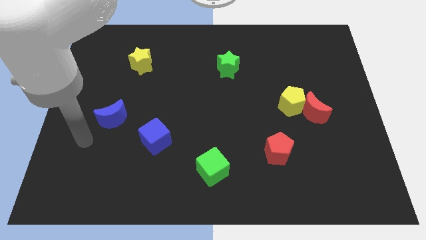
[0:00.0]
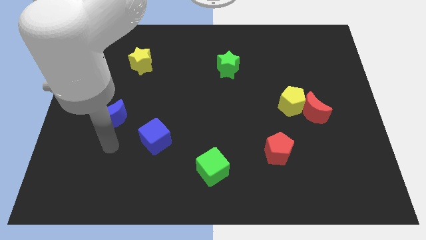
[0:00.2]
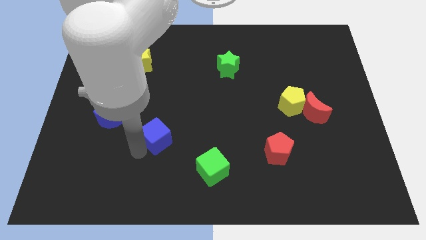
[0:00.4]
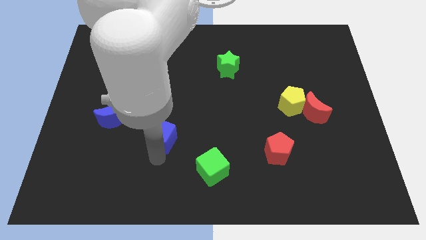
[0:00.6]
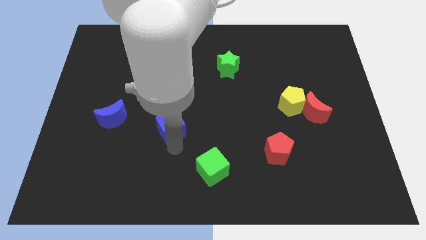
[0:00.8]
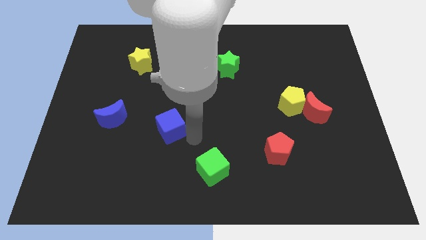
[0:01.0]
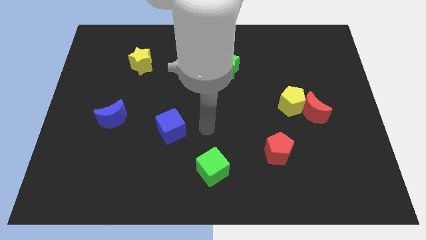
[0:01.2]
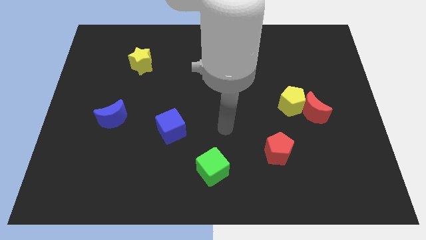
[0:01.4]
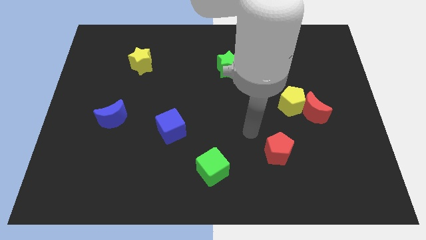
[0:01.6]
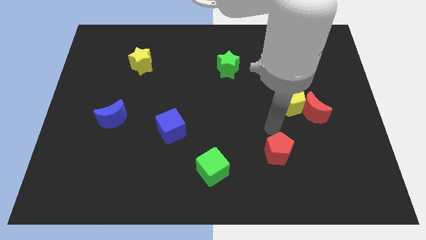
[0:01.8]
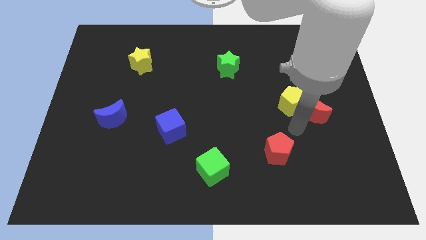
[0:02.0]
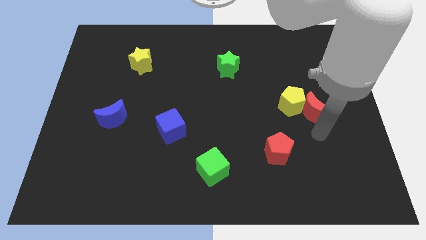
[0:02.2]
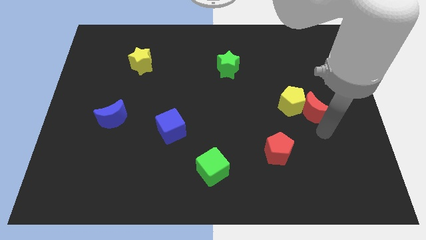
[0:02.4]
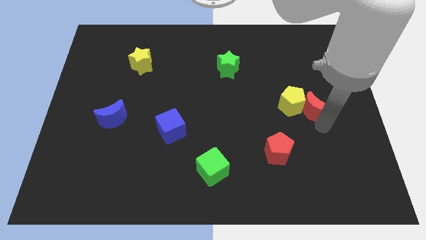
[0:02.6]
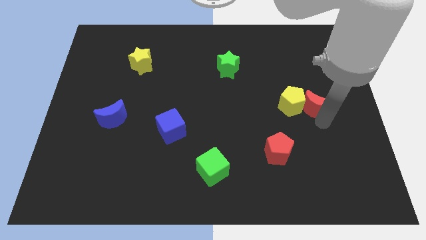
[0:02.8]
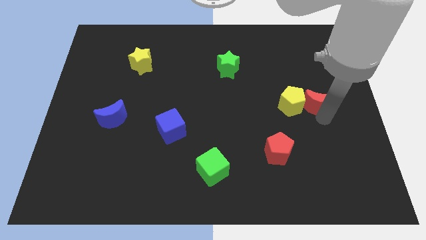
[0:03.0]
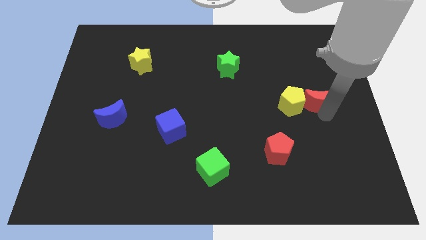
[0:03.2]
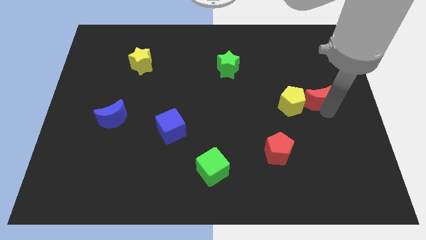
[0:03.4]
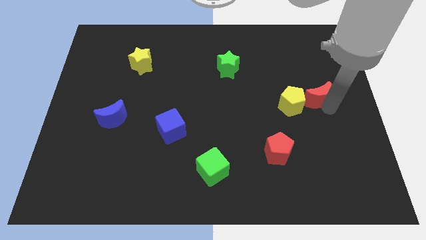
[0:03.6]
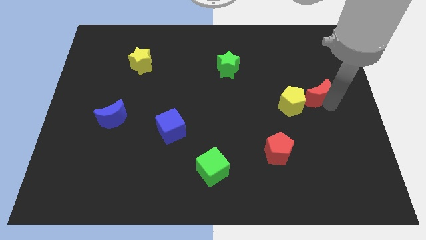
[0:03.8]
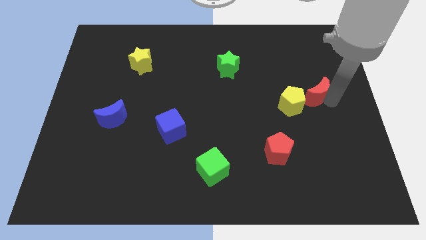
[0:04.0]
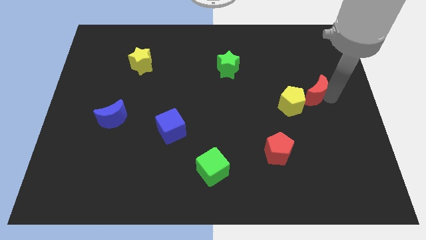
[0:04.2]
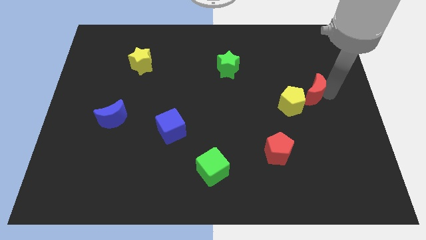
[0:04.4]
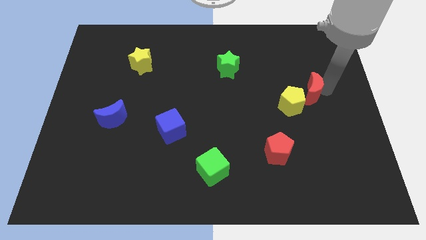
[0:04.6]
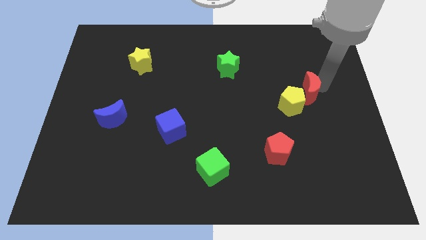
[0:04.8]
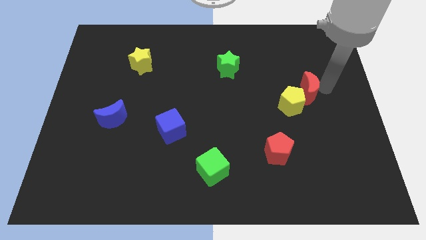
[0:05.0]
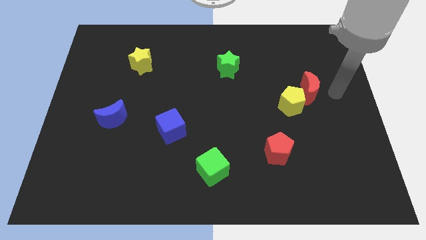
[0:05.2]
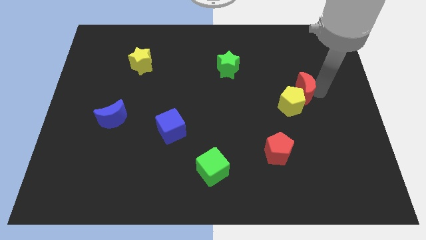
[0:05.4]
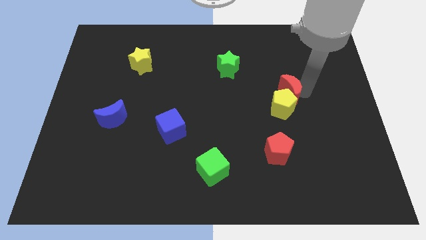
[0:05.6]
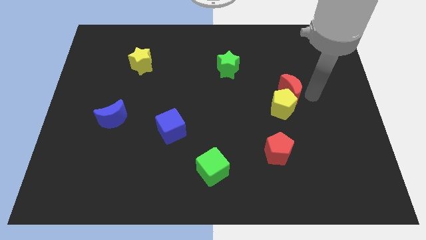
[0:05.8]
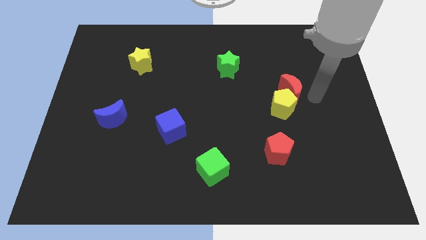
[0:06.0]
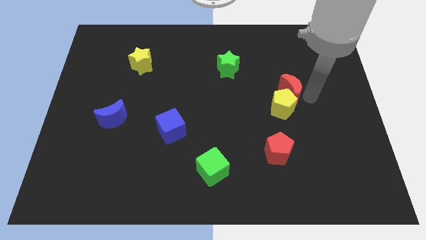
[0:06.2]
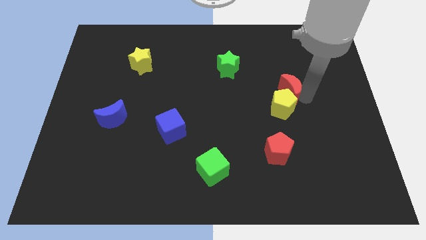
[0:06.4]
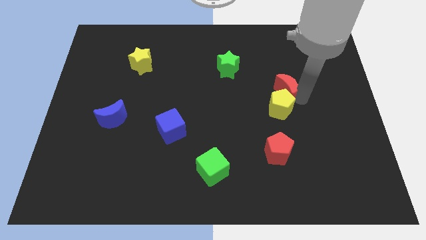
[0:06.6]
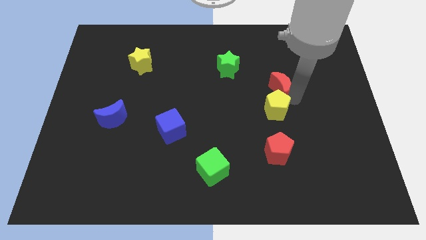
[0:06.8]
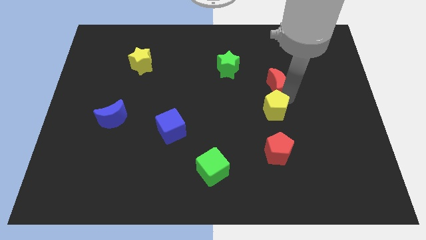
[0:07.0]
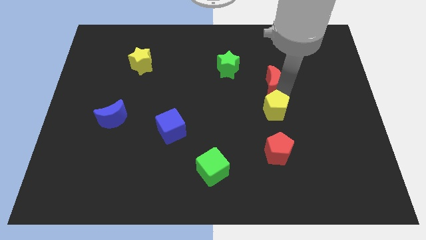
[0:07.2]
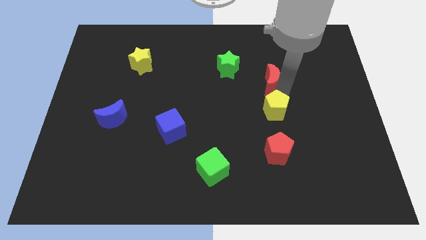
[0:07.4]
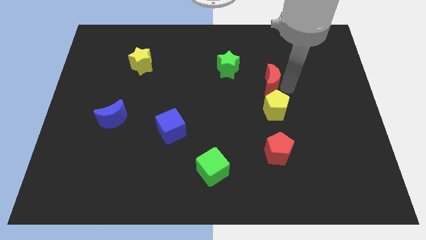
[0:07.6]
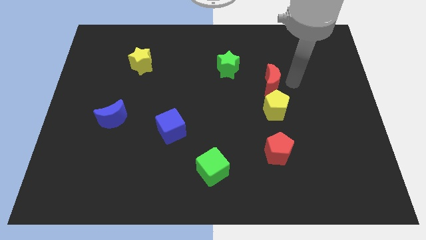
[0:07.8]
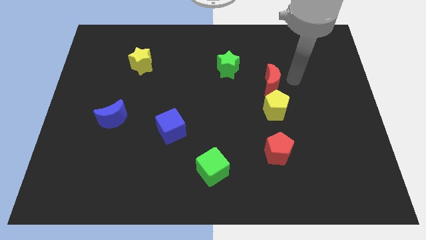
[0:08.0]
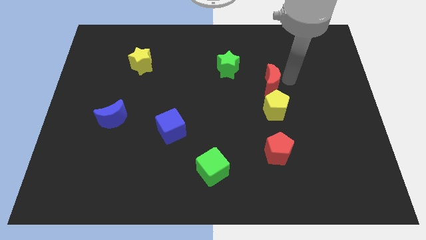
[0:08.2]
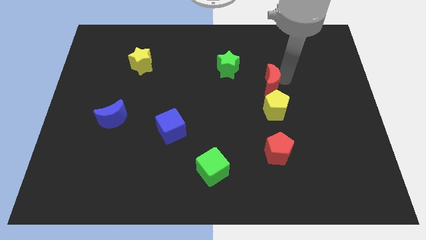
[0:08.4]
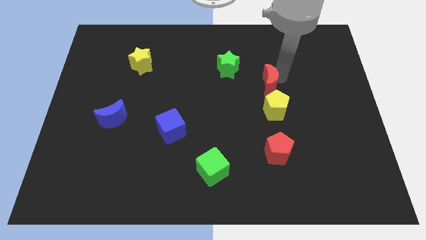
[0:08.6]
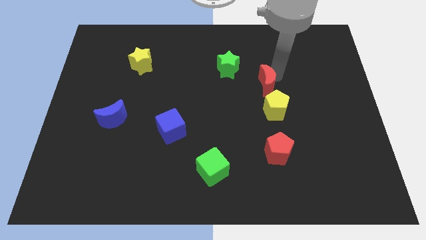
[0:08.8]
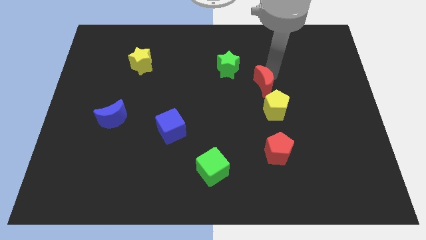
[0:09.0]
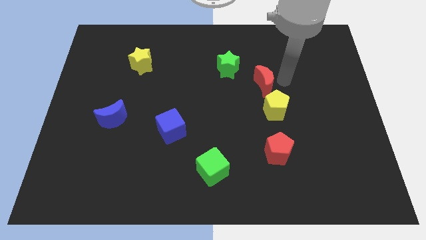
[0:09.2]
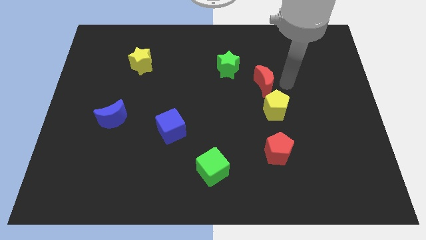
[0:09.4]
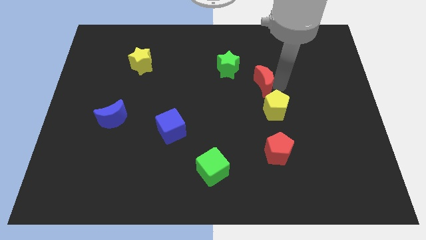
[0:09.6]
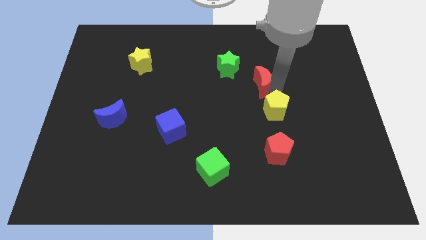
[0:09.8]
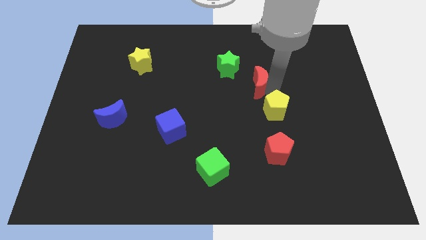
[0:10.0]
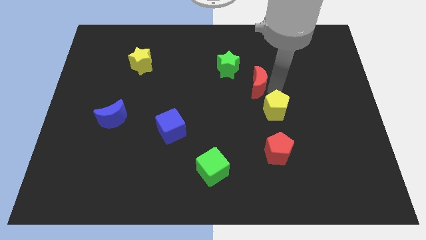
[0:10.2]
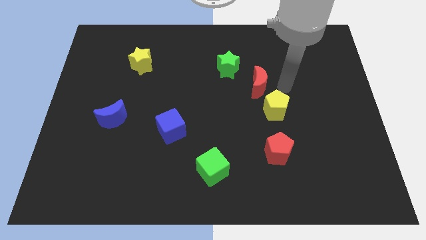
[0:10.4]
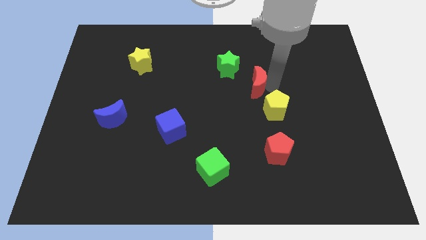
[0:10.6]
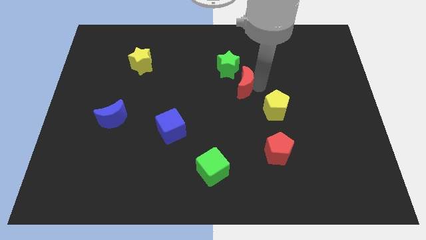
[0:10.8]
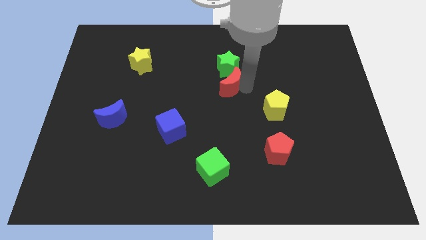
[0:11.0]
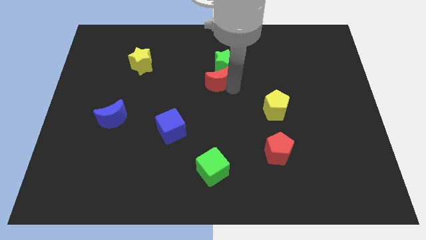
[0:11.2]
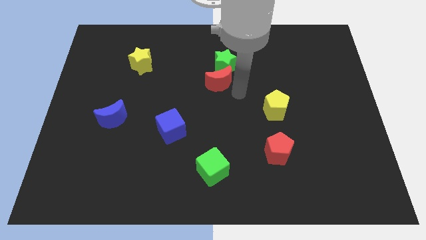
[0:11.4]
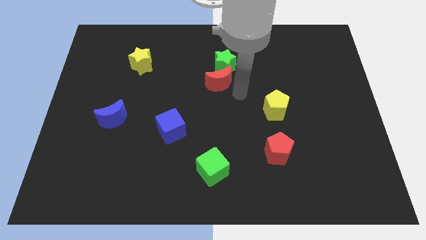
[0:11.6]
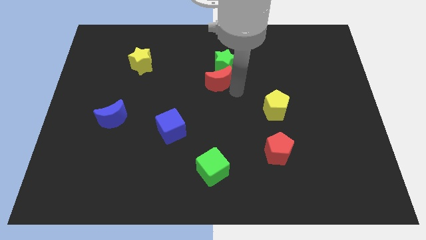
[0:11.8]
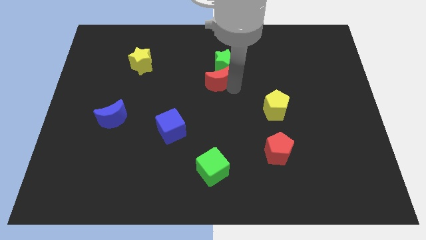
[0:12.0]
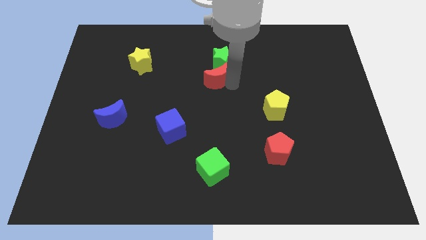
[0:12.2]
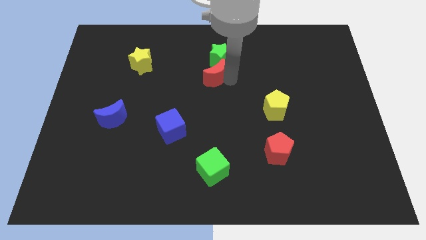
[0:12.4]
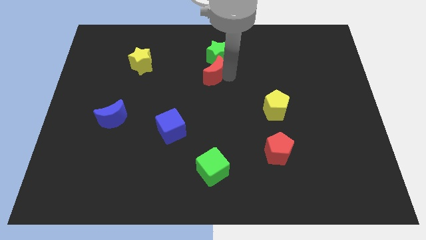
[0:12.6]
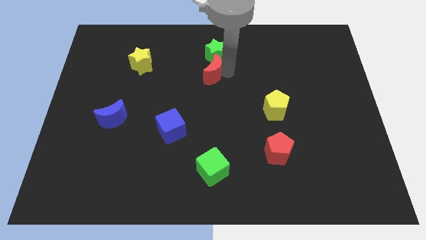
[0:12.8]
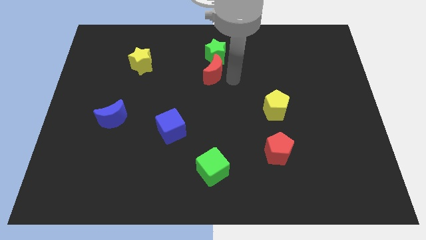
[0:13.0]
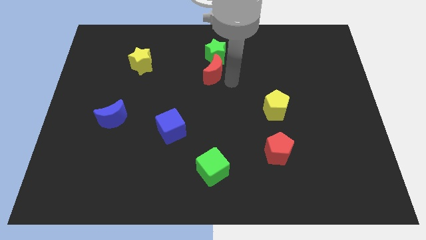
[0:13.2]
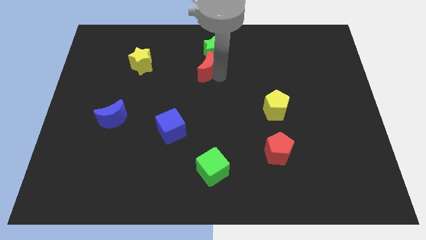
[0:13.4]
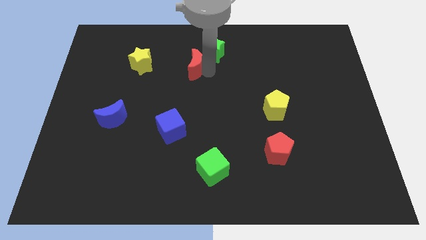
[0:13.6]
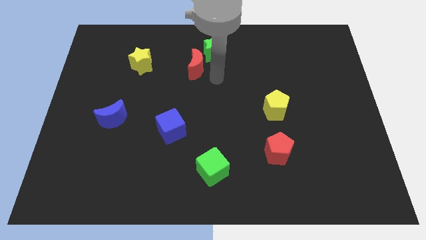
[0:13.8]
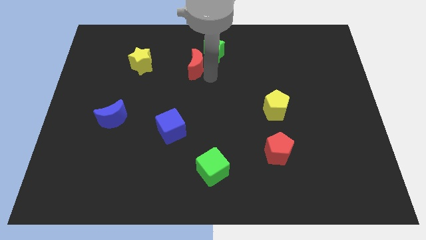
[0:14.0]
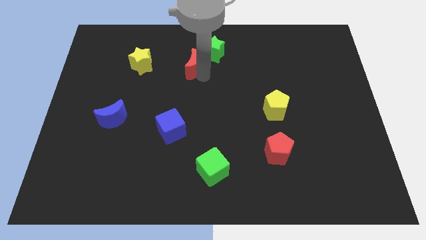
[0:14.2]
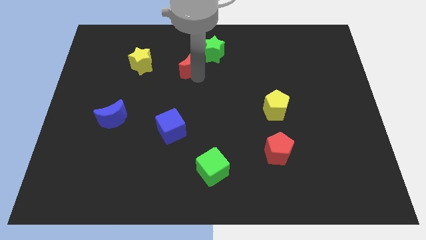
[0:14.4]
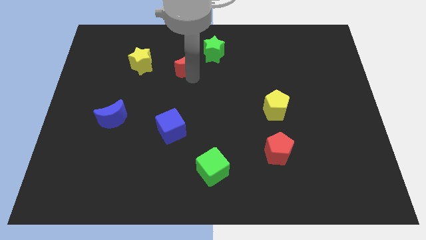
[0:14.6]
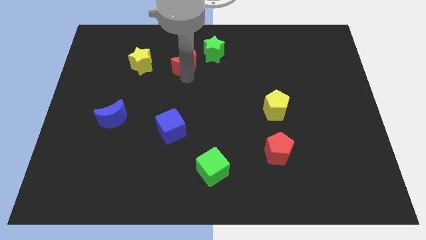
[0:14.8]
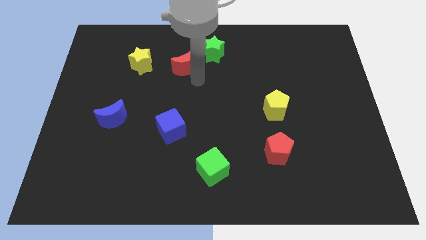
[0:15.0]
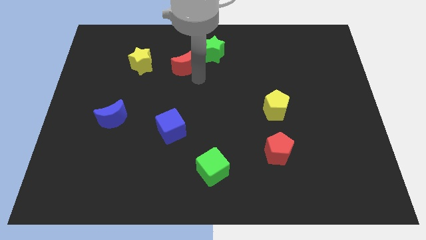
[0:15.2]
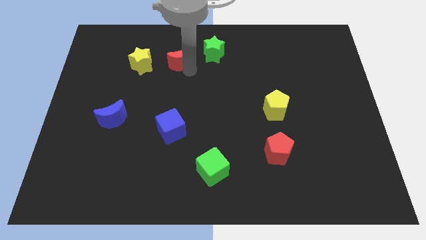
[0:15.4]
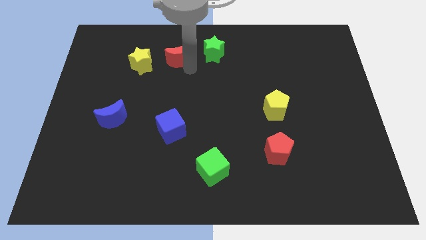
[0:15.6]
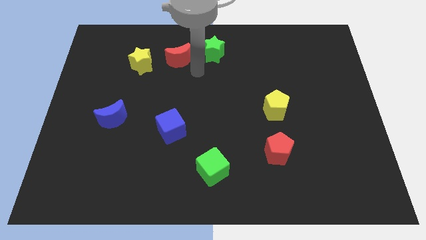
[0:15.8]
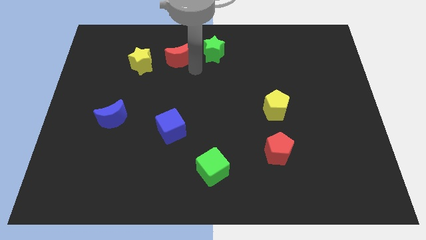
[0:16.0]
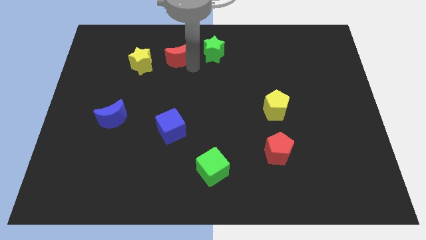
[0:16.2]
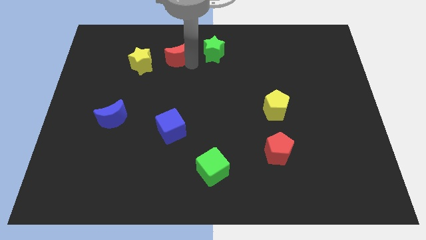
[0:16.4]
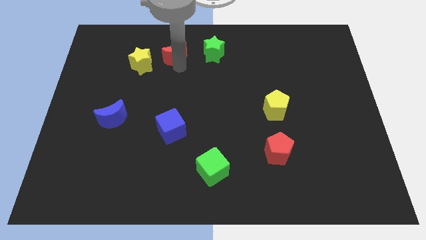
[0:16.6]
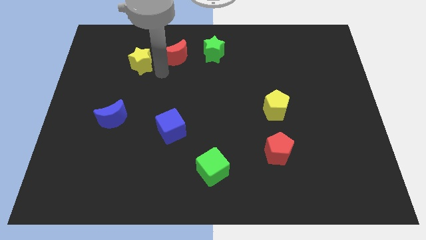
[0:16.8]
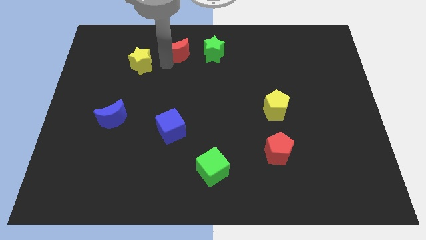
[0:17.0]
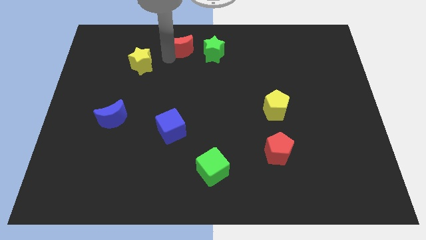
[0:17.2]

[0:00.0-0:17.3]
move the red moon to the top side
